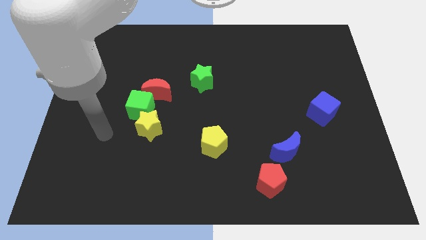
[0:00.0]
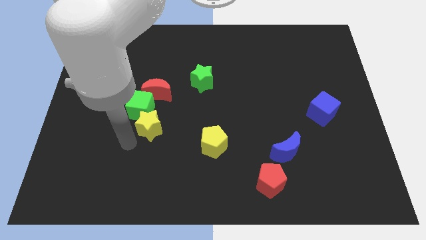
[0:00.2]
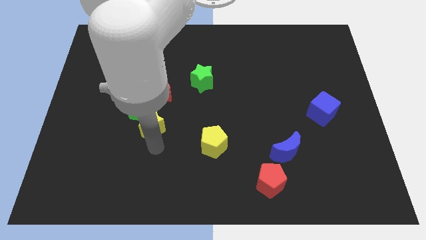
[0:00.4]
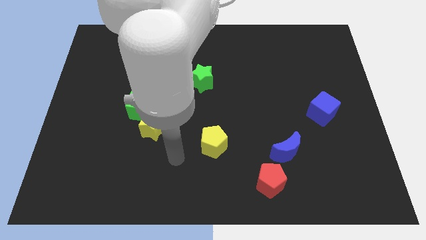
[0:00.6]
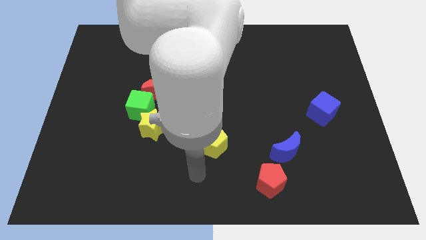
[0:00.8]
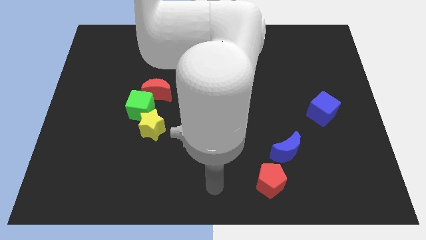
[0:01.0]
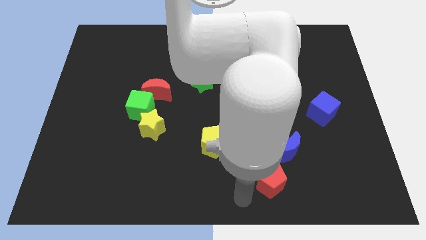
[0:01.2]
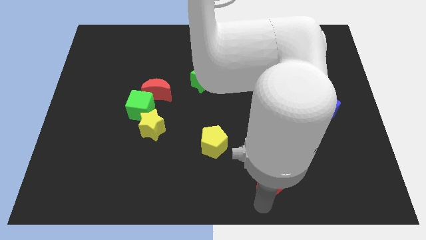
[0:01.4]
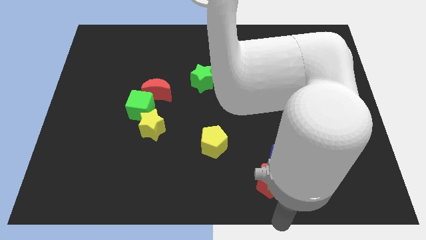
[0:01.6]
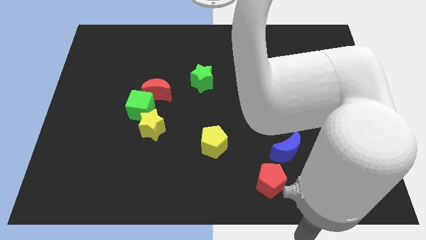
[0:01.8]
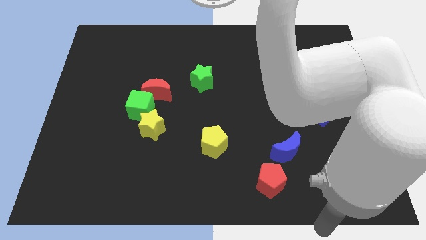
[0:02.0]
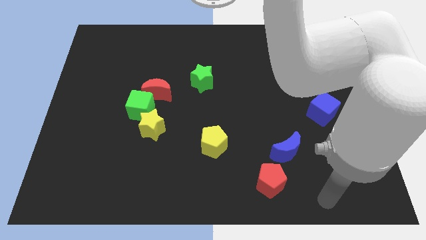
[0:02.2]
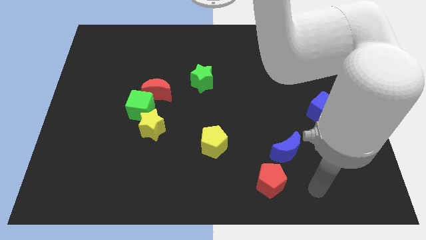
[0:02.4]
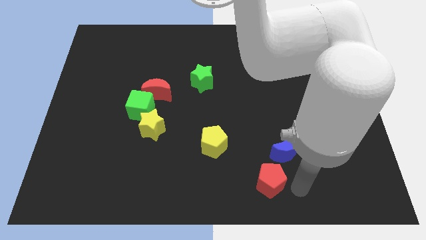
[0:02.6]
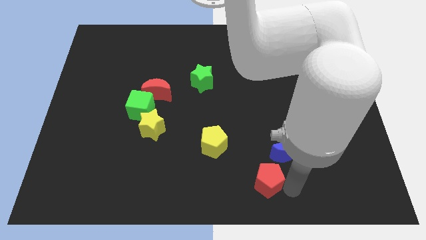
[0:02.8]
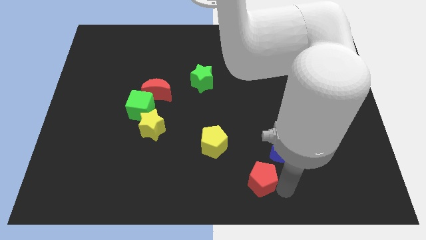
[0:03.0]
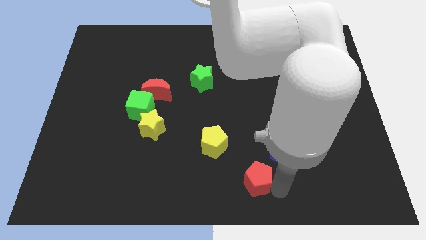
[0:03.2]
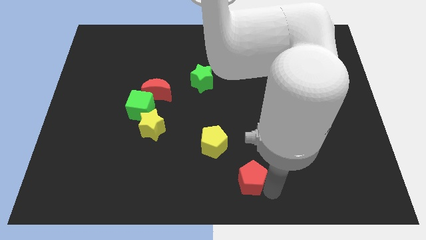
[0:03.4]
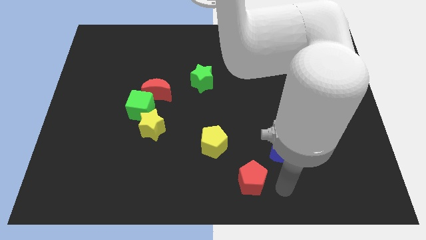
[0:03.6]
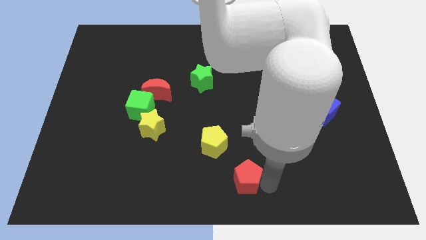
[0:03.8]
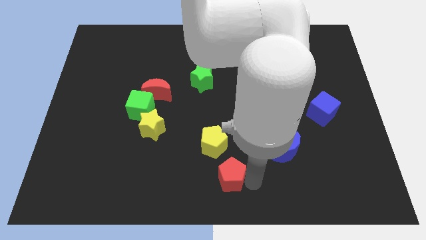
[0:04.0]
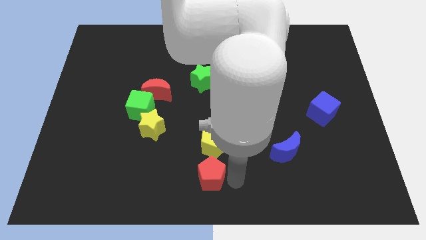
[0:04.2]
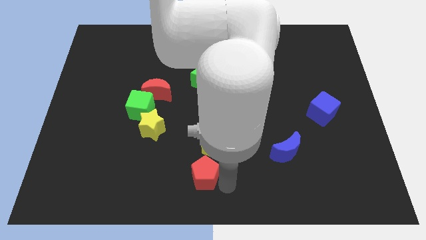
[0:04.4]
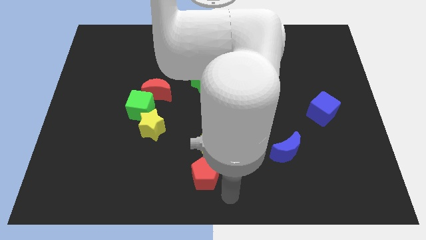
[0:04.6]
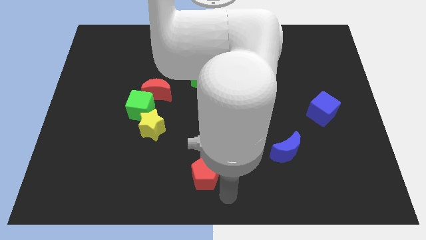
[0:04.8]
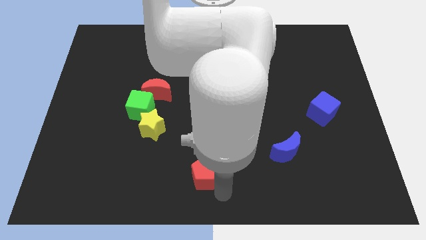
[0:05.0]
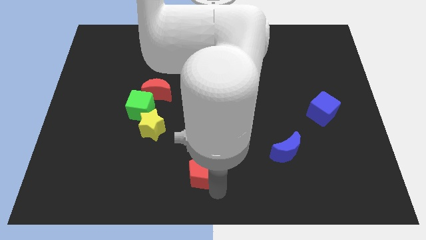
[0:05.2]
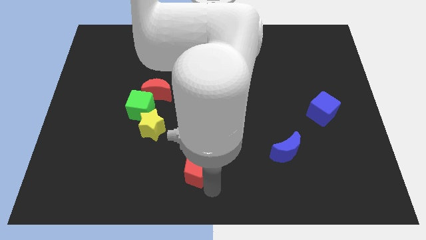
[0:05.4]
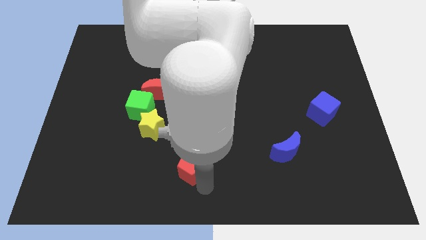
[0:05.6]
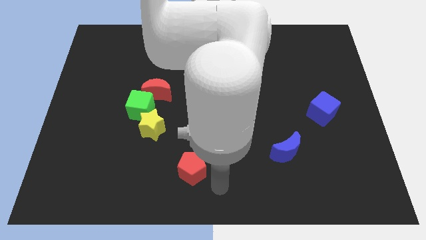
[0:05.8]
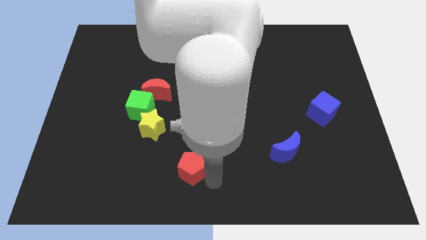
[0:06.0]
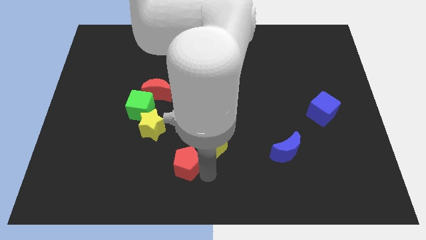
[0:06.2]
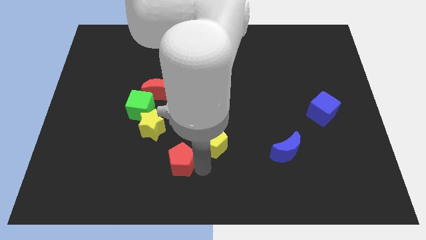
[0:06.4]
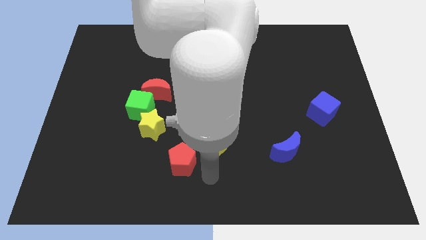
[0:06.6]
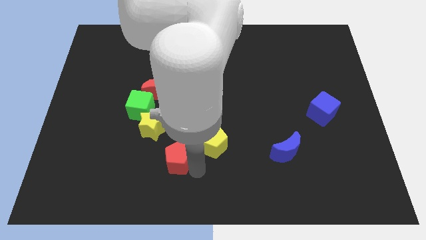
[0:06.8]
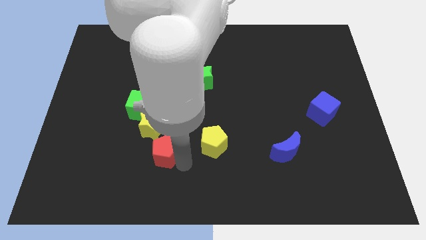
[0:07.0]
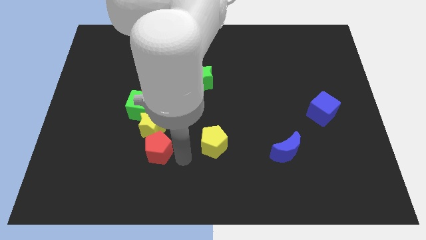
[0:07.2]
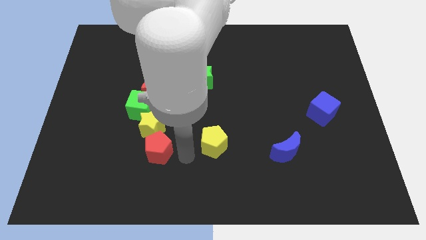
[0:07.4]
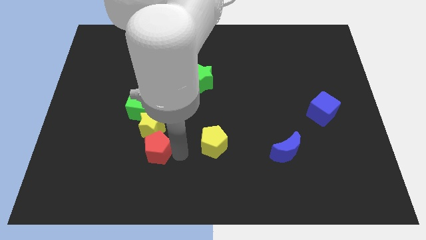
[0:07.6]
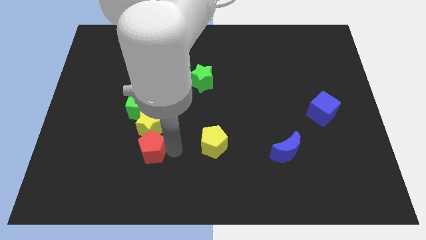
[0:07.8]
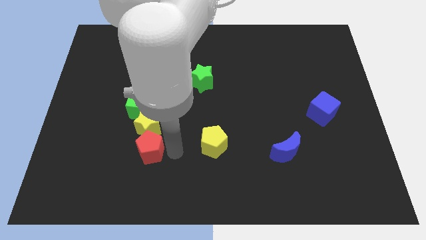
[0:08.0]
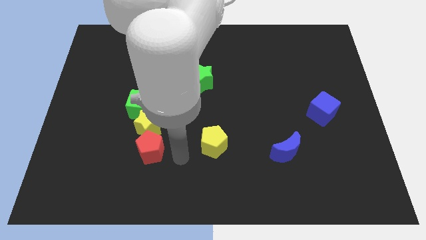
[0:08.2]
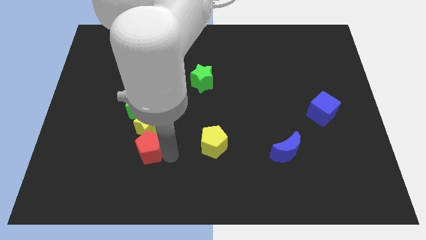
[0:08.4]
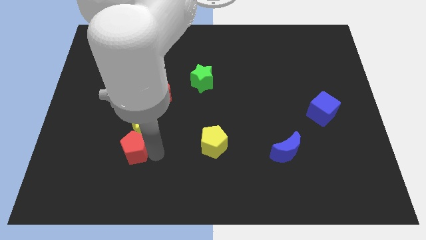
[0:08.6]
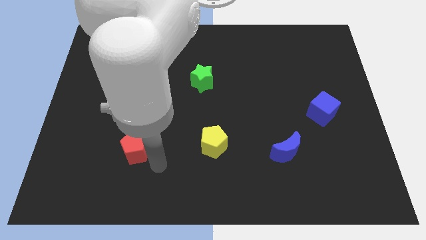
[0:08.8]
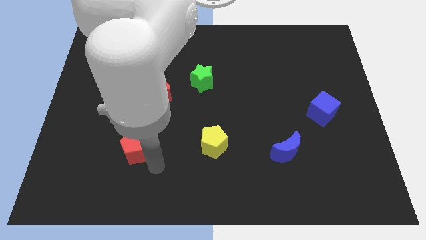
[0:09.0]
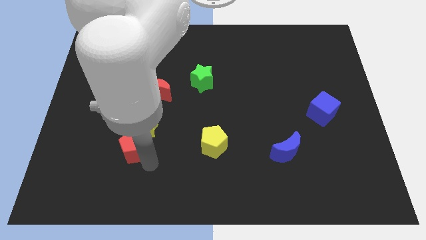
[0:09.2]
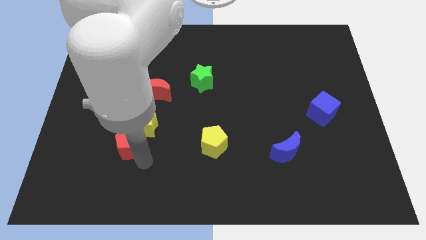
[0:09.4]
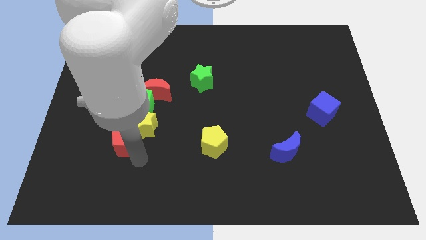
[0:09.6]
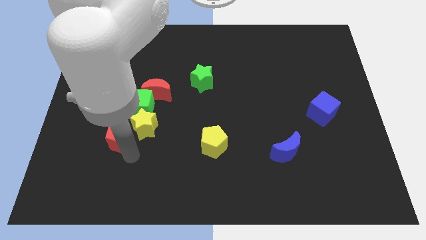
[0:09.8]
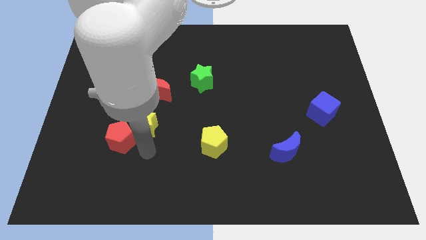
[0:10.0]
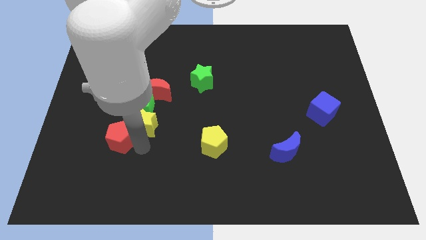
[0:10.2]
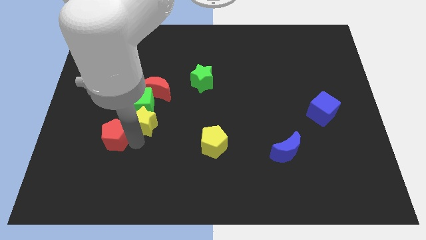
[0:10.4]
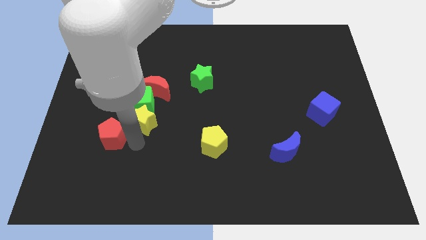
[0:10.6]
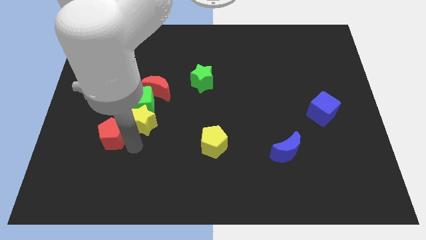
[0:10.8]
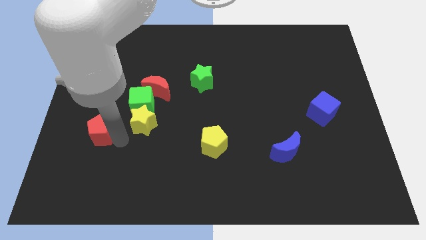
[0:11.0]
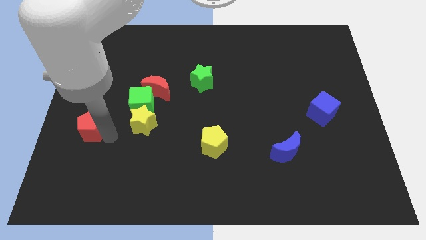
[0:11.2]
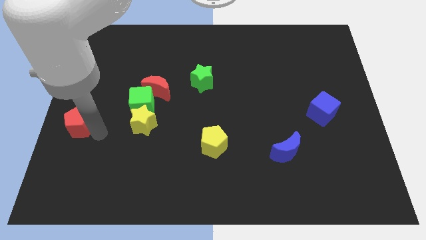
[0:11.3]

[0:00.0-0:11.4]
slide the red pentagon to the center left
